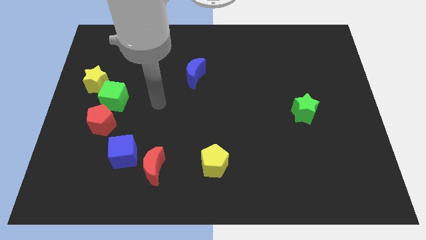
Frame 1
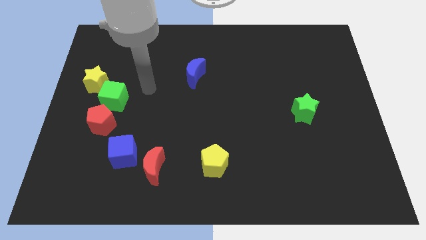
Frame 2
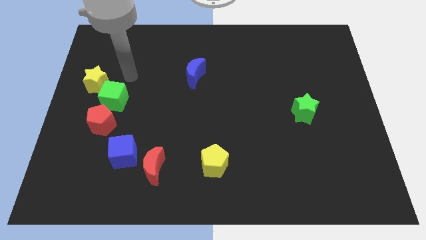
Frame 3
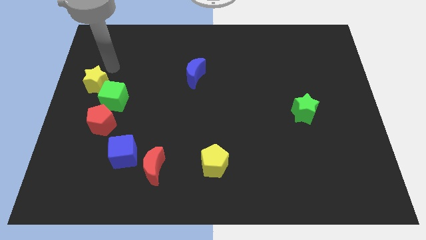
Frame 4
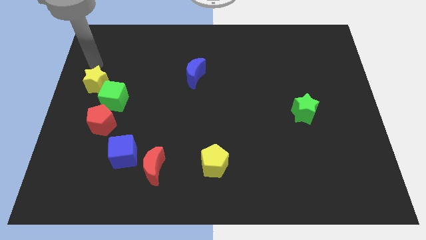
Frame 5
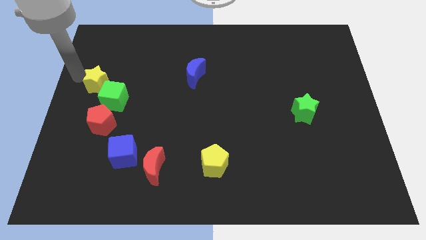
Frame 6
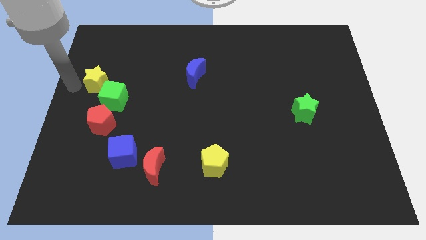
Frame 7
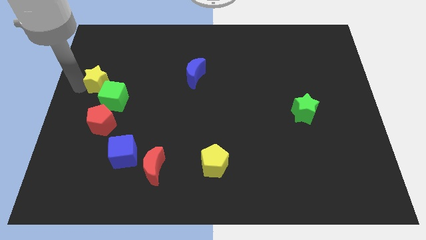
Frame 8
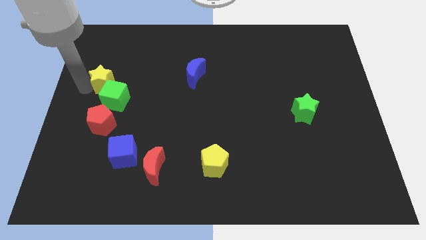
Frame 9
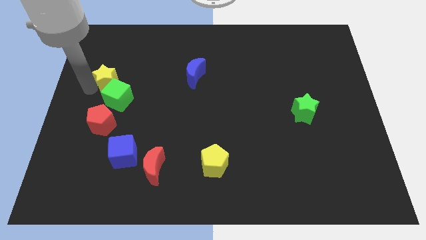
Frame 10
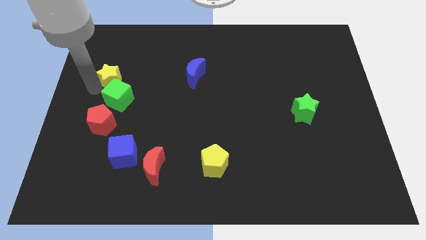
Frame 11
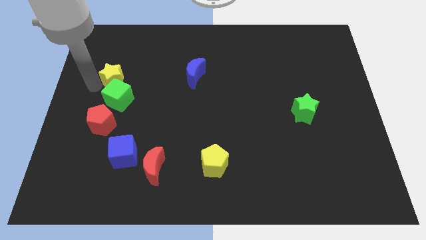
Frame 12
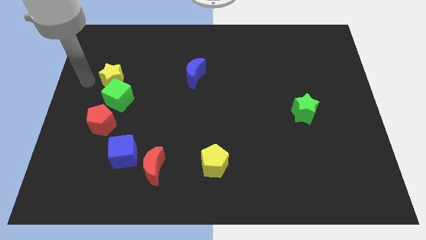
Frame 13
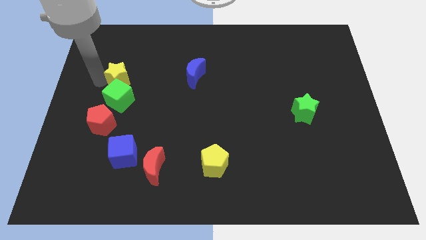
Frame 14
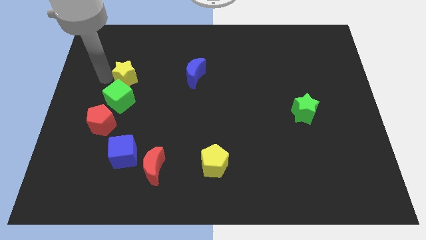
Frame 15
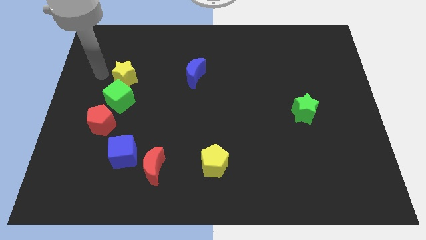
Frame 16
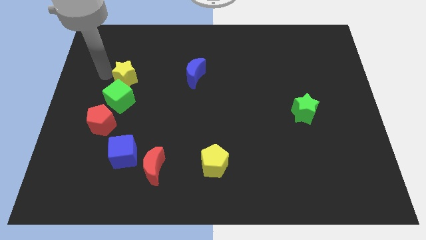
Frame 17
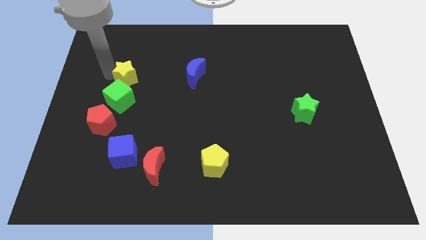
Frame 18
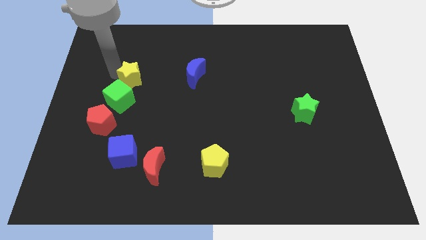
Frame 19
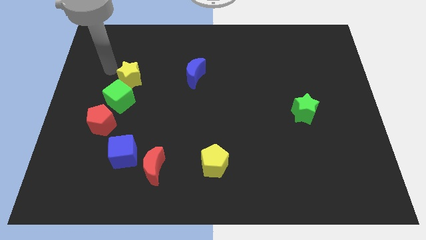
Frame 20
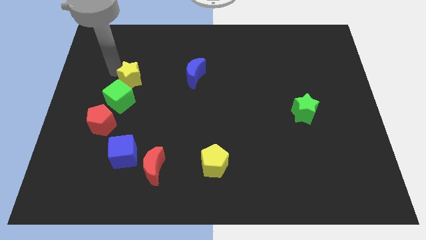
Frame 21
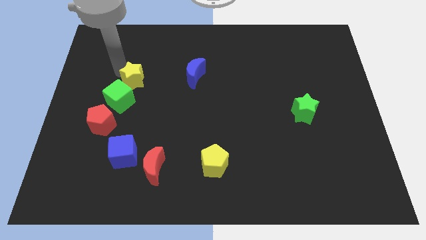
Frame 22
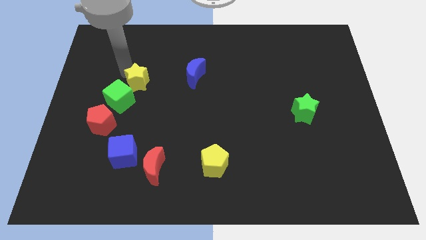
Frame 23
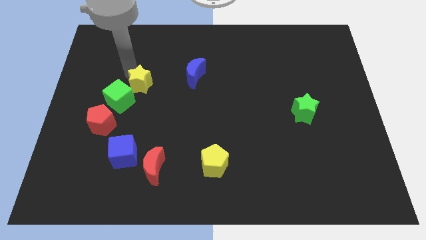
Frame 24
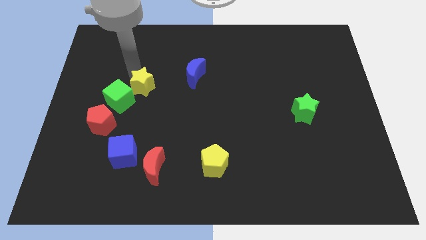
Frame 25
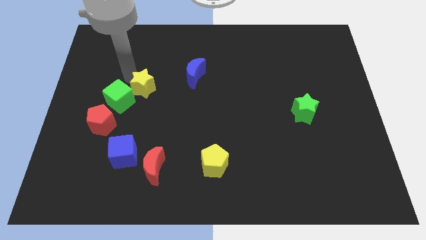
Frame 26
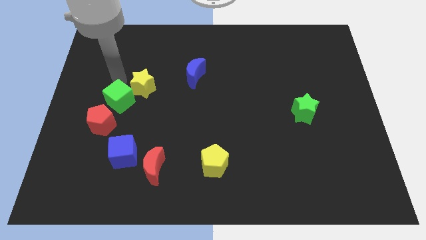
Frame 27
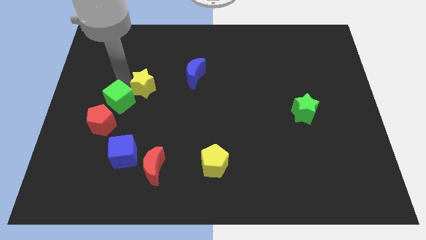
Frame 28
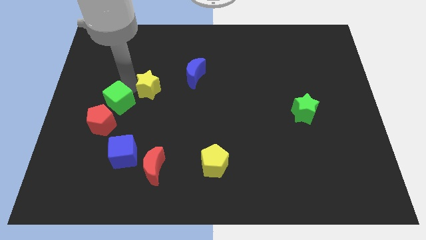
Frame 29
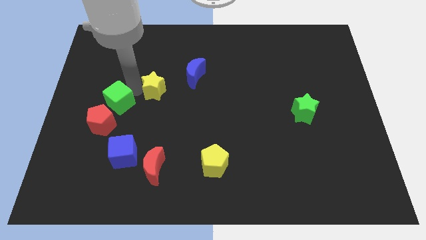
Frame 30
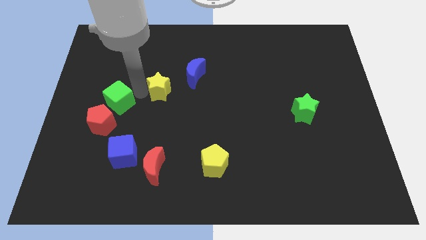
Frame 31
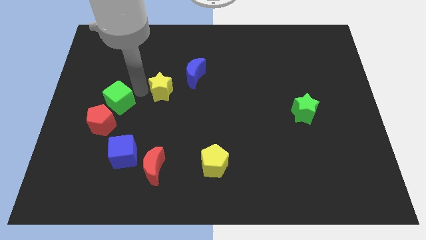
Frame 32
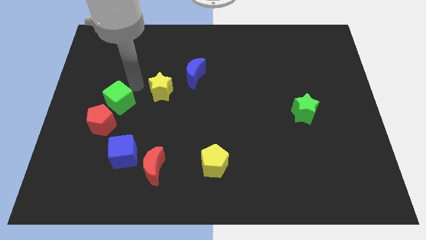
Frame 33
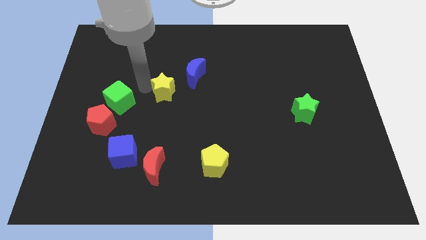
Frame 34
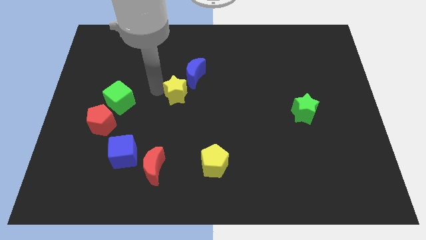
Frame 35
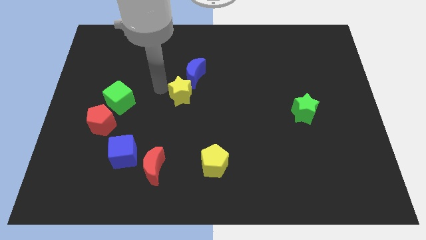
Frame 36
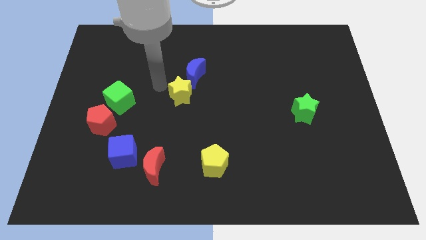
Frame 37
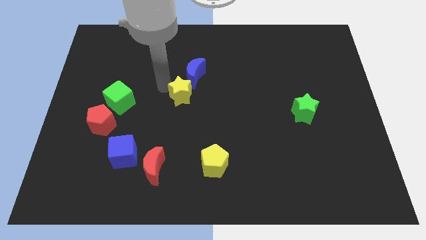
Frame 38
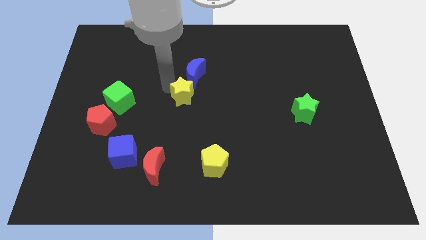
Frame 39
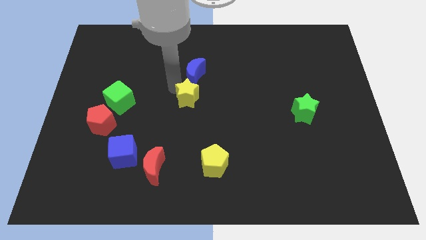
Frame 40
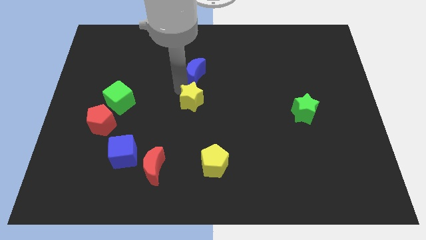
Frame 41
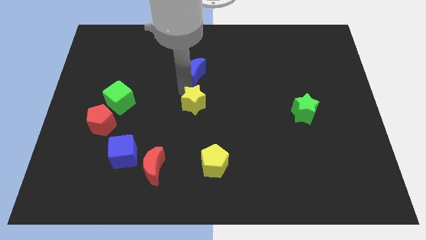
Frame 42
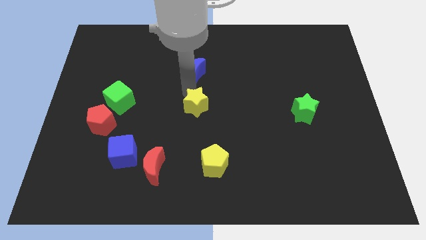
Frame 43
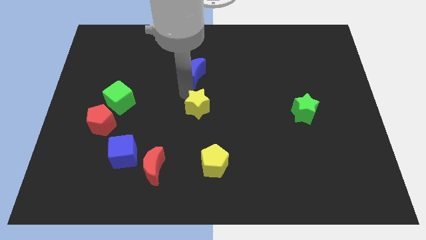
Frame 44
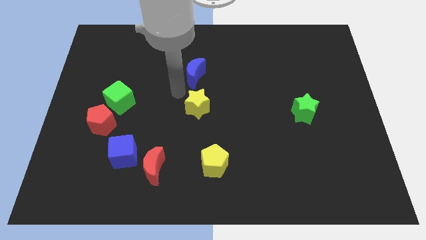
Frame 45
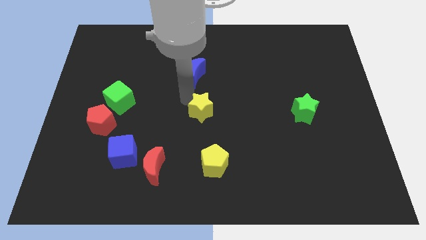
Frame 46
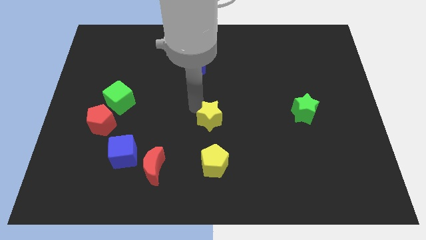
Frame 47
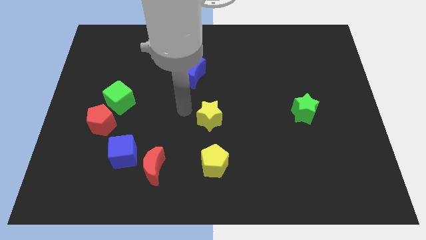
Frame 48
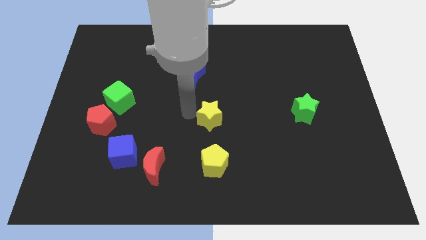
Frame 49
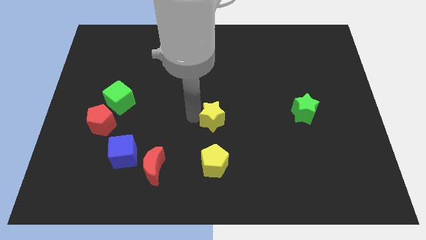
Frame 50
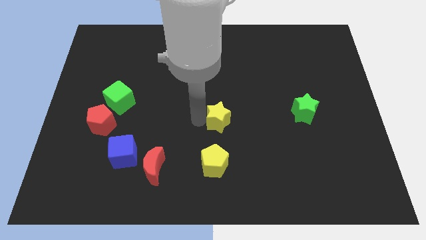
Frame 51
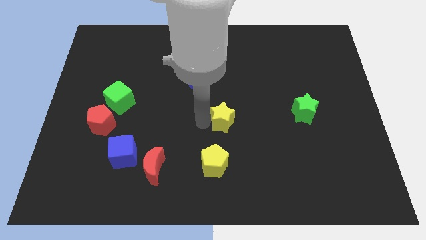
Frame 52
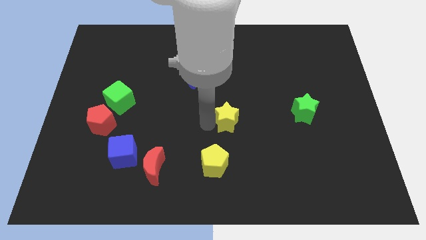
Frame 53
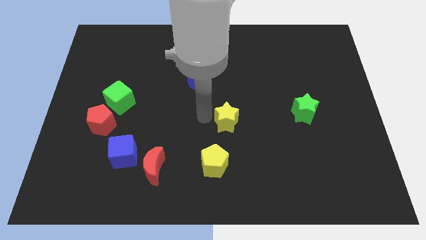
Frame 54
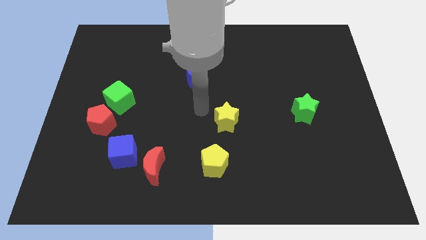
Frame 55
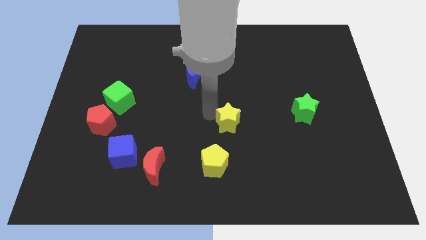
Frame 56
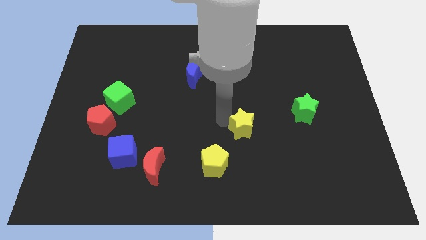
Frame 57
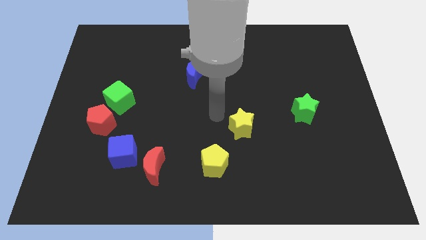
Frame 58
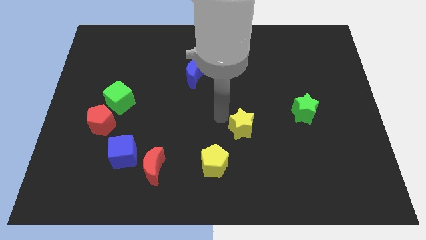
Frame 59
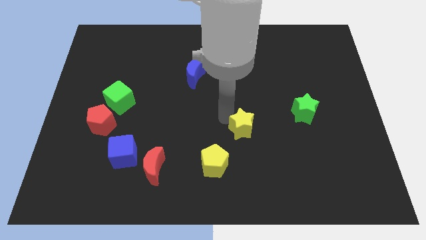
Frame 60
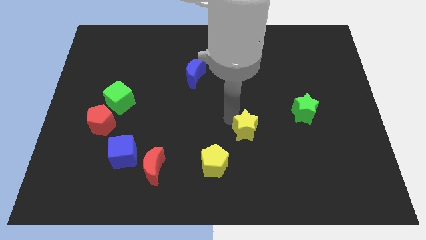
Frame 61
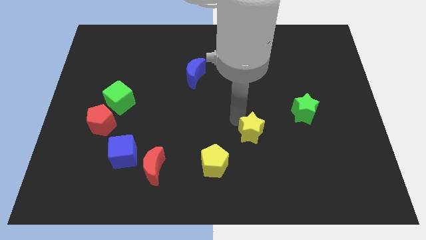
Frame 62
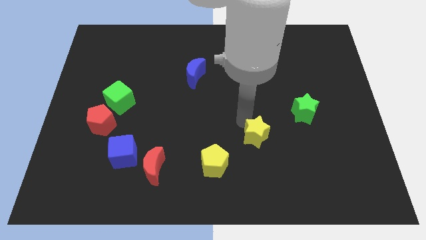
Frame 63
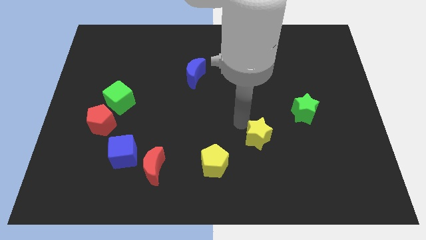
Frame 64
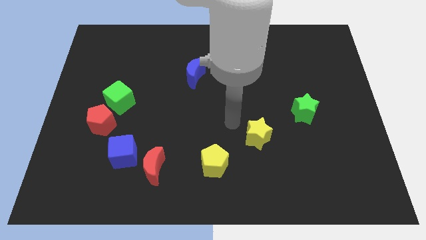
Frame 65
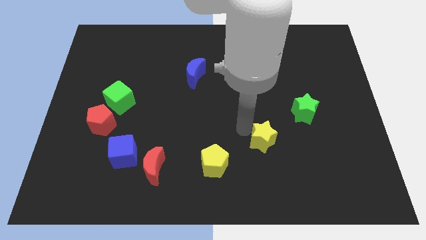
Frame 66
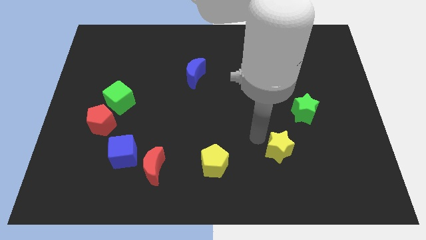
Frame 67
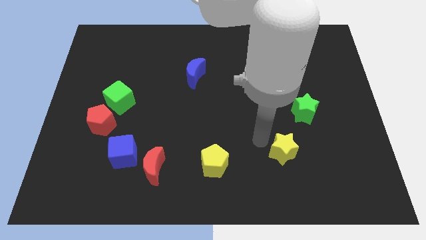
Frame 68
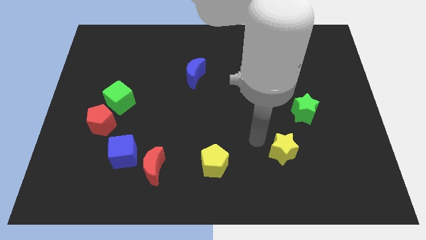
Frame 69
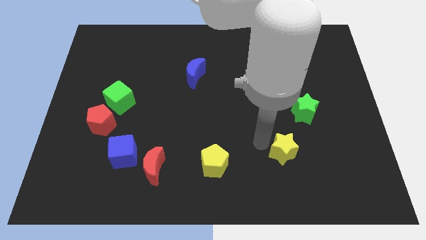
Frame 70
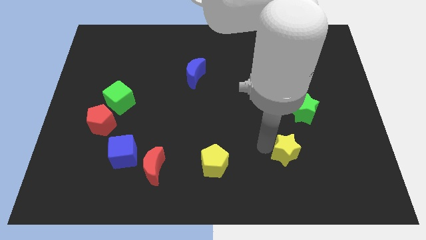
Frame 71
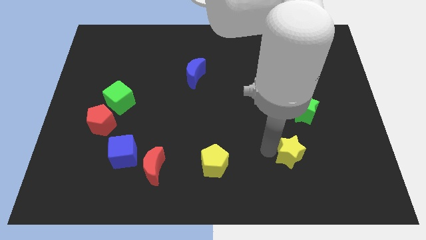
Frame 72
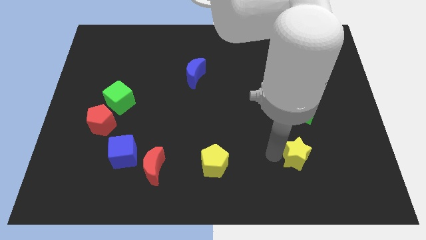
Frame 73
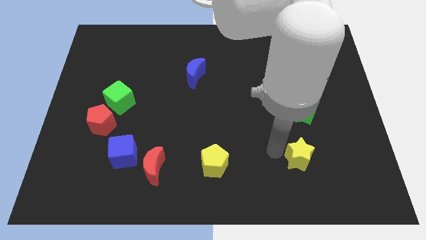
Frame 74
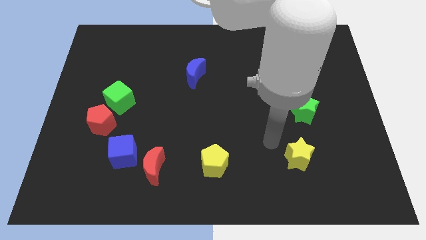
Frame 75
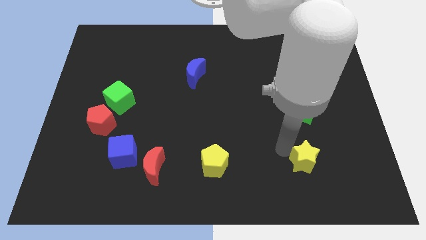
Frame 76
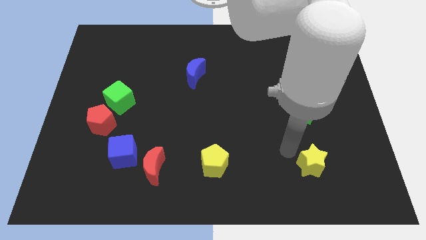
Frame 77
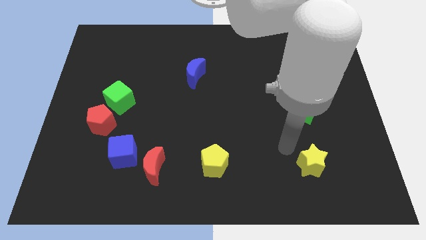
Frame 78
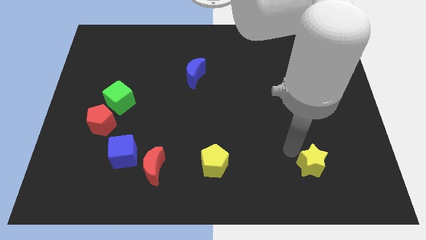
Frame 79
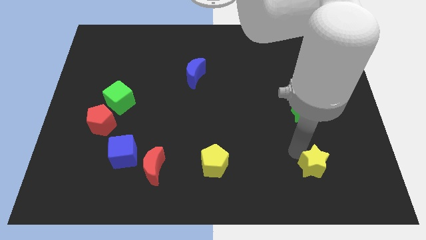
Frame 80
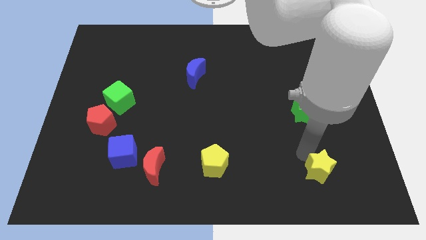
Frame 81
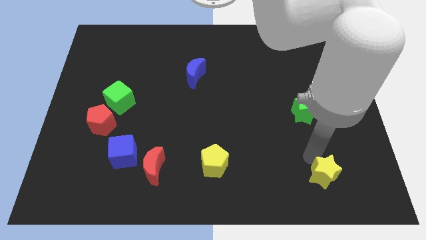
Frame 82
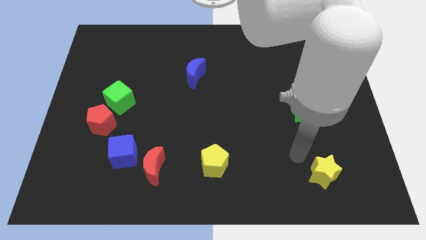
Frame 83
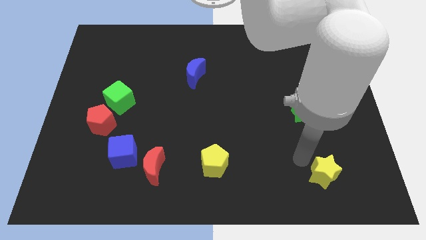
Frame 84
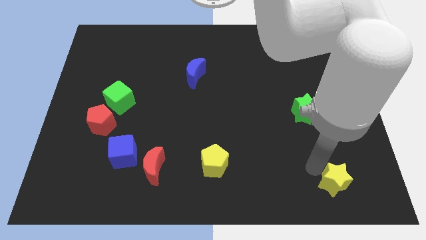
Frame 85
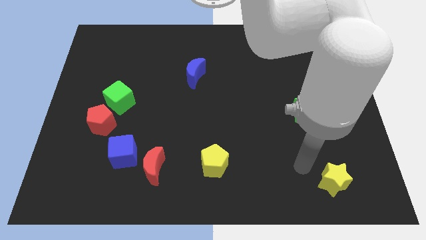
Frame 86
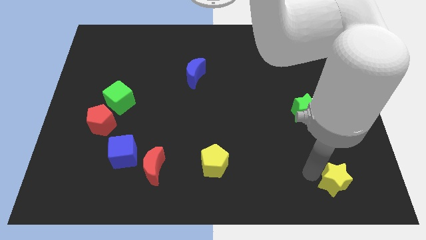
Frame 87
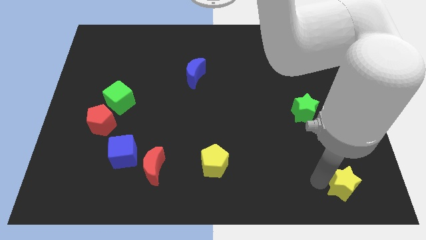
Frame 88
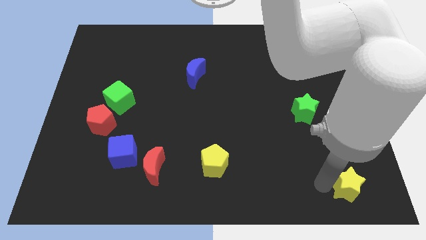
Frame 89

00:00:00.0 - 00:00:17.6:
put the yellow star to the bottom right
